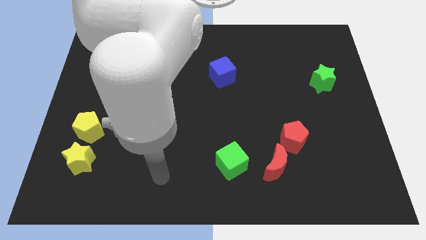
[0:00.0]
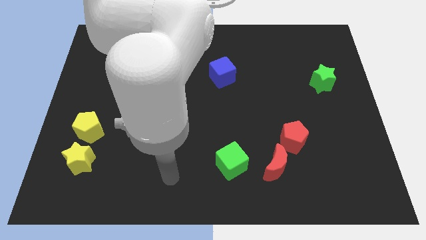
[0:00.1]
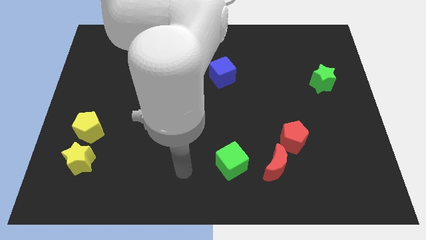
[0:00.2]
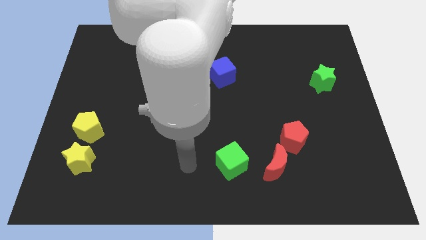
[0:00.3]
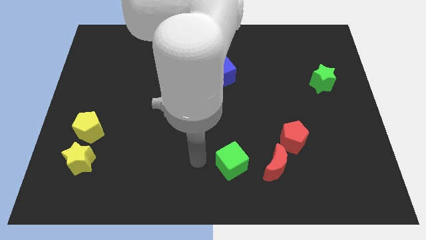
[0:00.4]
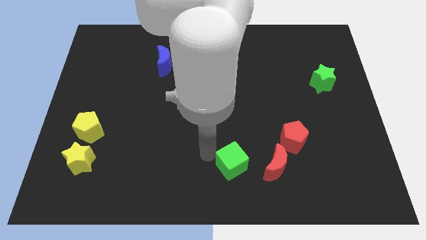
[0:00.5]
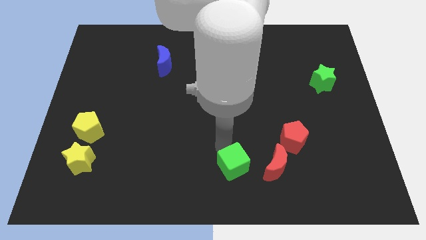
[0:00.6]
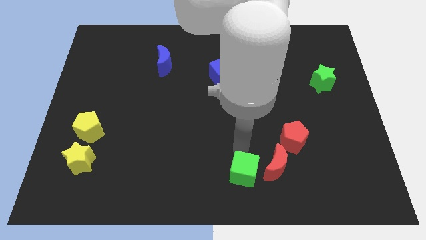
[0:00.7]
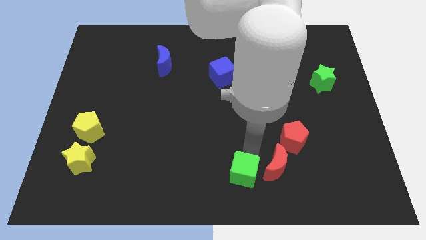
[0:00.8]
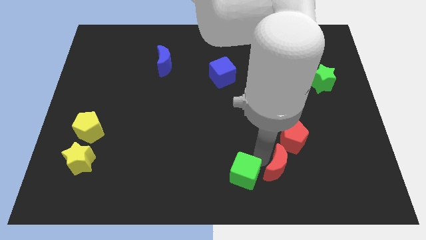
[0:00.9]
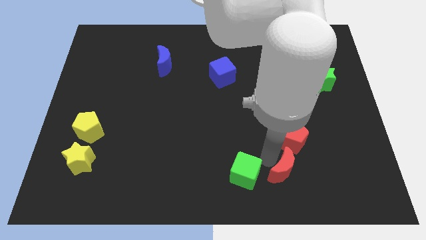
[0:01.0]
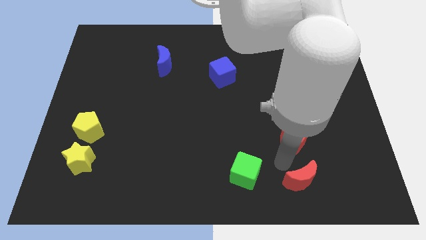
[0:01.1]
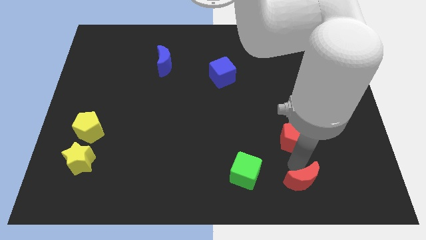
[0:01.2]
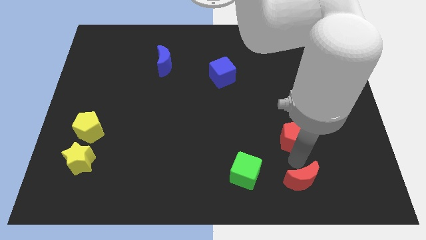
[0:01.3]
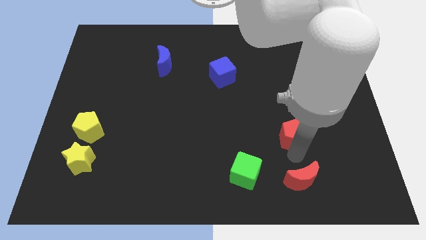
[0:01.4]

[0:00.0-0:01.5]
pull the red pentagon apart from the red moon

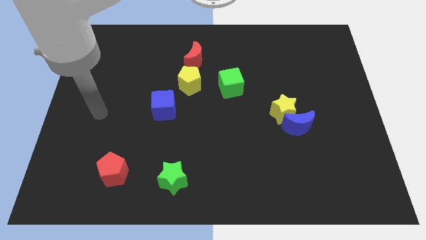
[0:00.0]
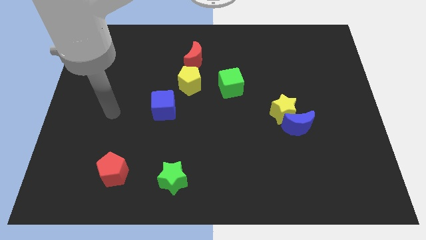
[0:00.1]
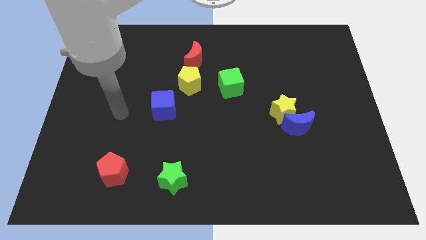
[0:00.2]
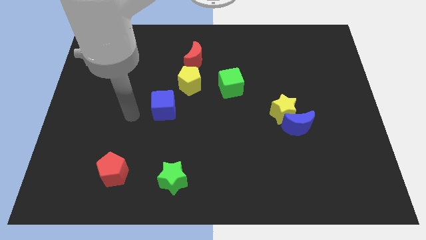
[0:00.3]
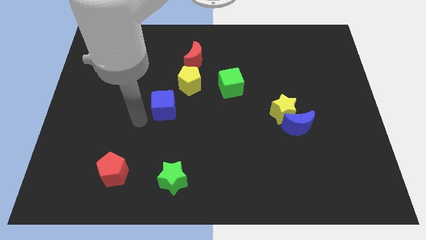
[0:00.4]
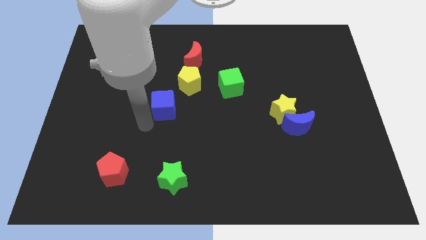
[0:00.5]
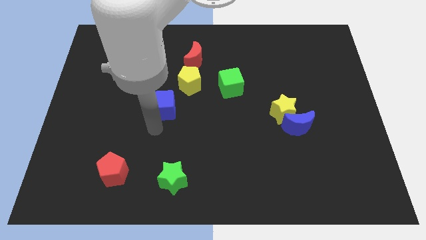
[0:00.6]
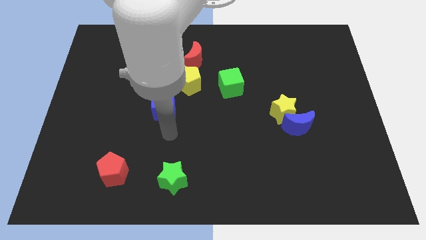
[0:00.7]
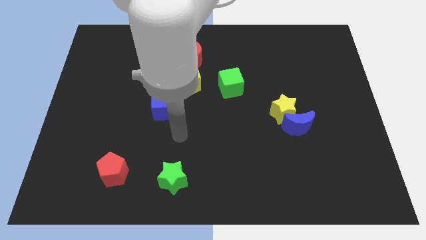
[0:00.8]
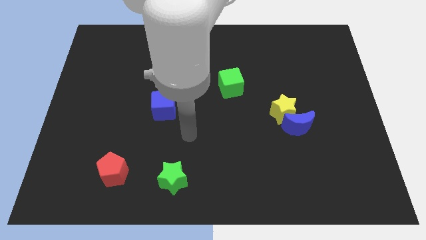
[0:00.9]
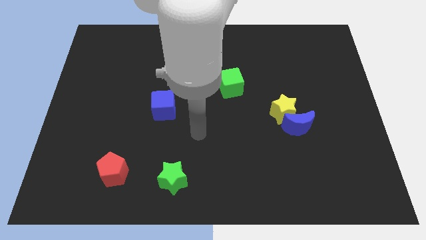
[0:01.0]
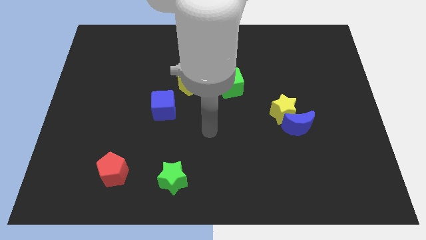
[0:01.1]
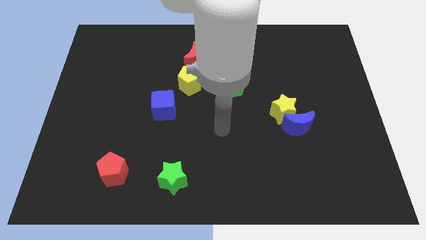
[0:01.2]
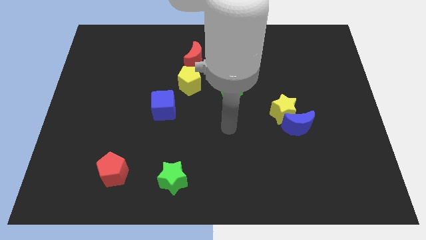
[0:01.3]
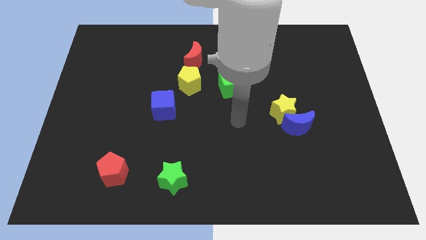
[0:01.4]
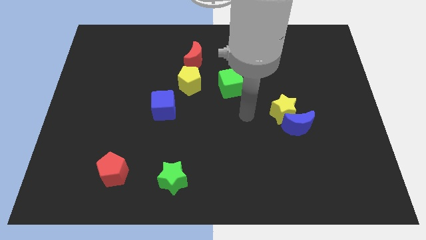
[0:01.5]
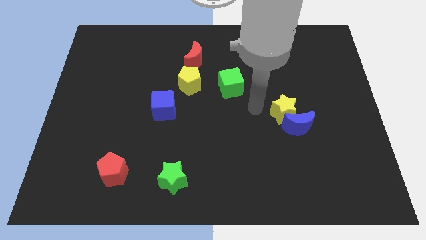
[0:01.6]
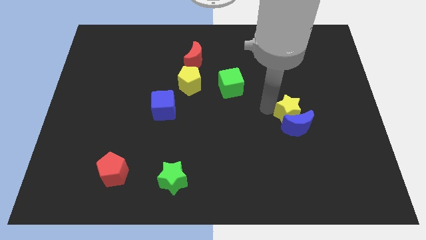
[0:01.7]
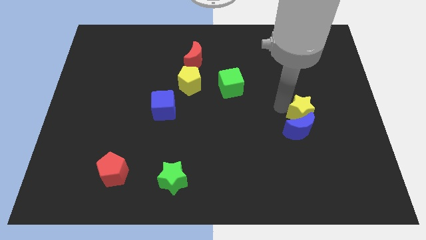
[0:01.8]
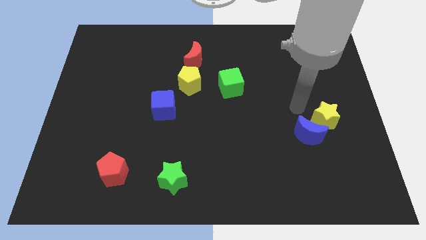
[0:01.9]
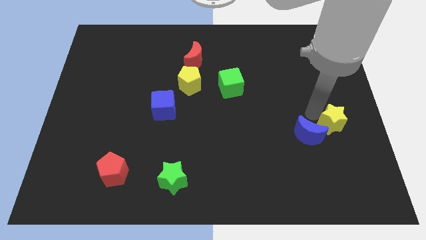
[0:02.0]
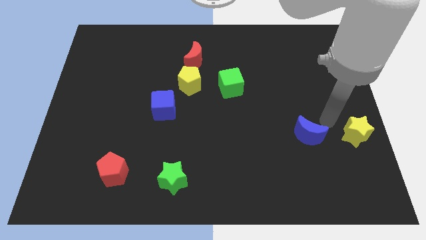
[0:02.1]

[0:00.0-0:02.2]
separate the blue moon from the yellow star

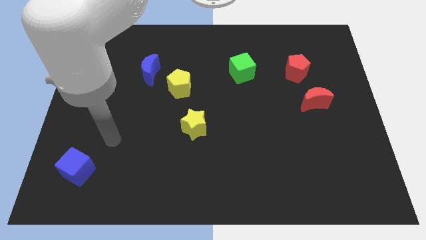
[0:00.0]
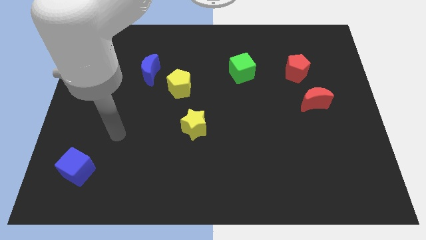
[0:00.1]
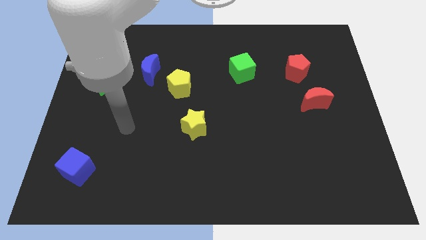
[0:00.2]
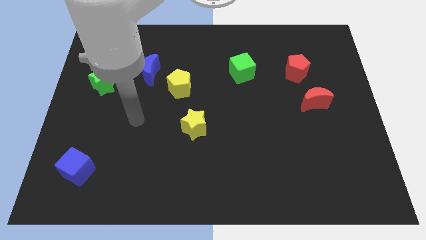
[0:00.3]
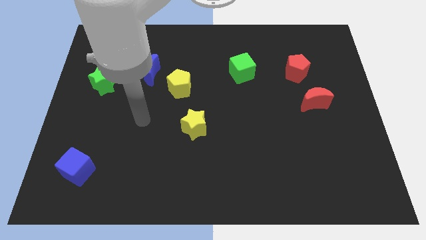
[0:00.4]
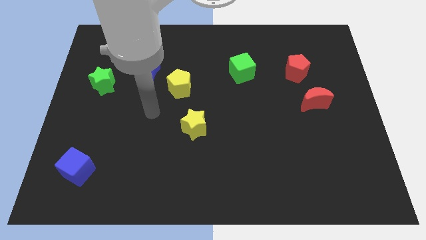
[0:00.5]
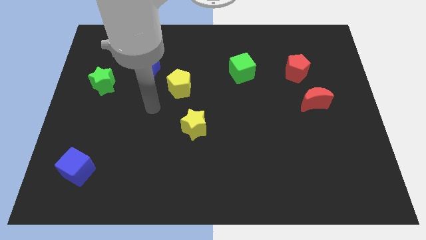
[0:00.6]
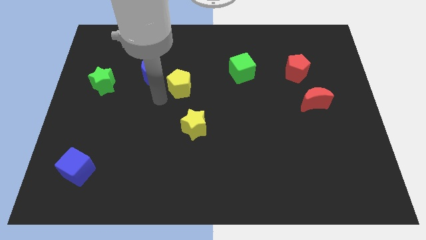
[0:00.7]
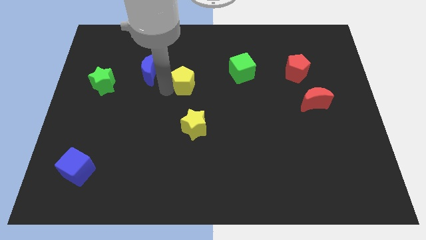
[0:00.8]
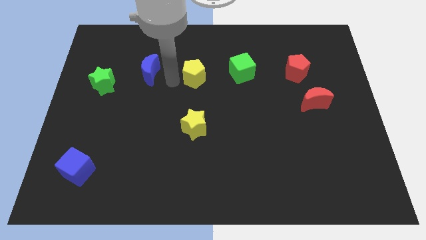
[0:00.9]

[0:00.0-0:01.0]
separate the blue moon from the yellow pentagon

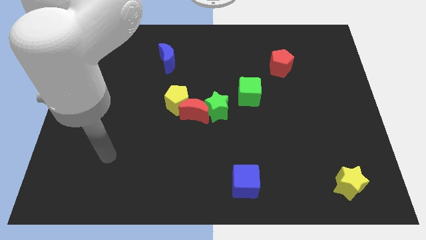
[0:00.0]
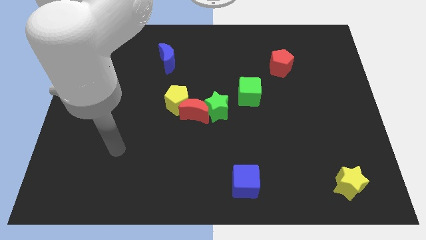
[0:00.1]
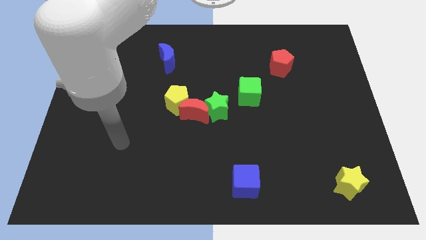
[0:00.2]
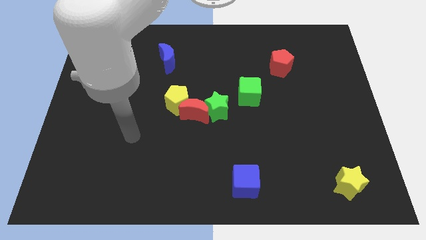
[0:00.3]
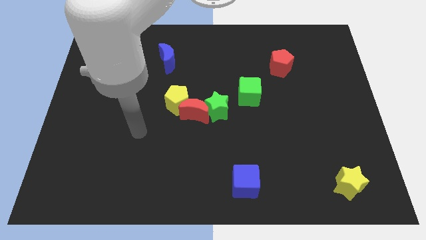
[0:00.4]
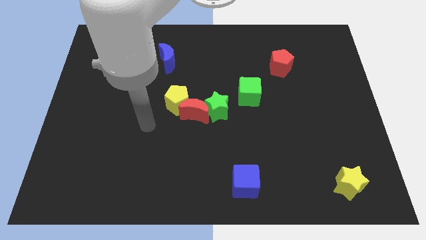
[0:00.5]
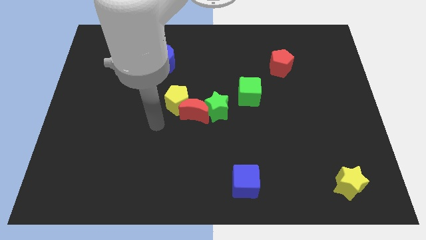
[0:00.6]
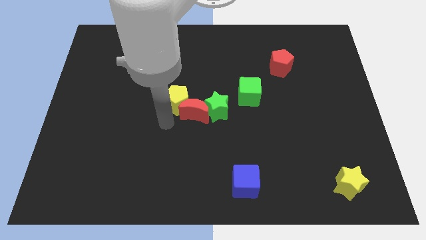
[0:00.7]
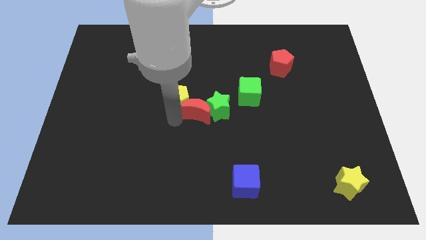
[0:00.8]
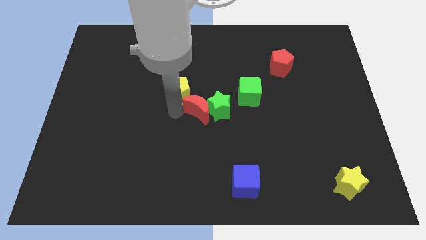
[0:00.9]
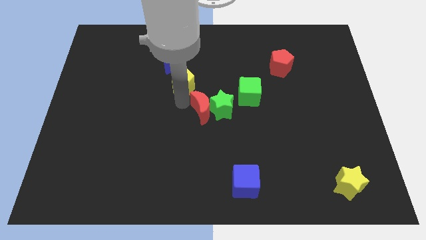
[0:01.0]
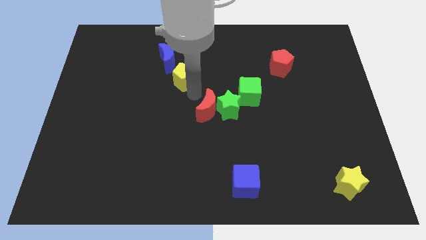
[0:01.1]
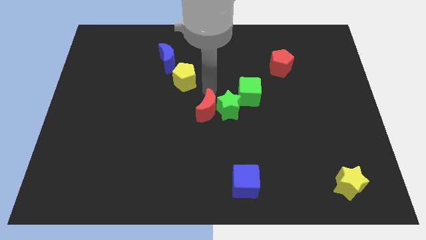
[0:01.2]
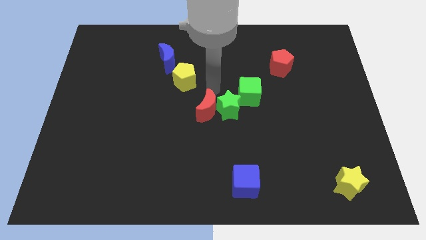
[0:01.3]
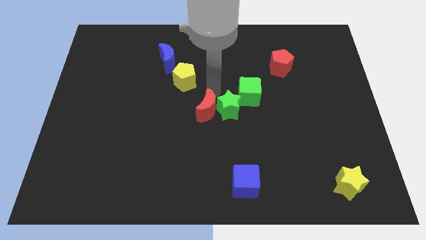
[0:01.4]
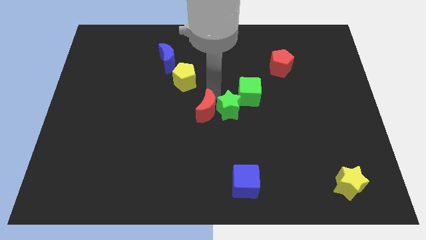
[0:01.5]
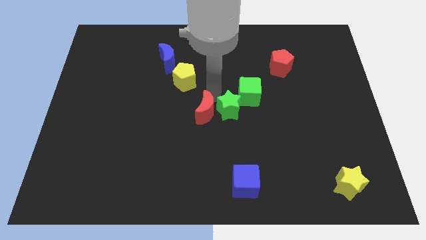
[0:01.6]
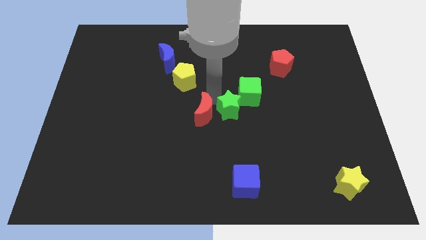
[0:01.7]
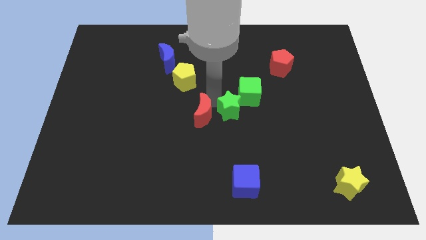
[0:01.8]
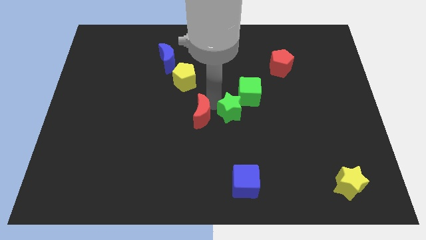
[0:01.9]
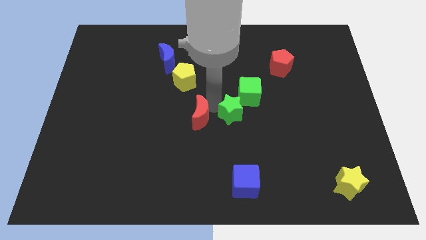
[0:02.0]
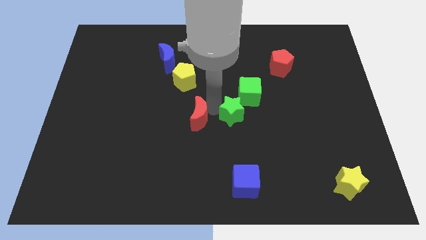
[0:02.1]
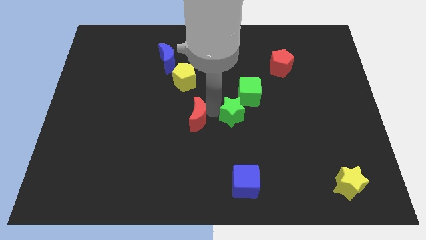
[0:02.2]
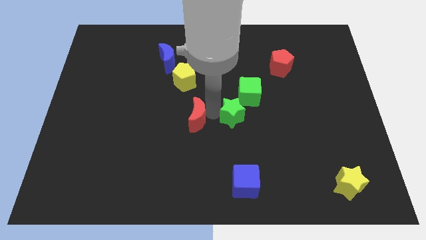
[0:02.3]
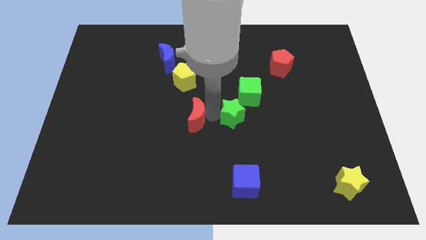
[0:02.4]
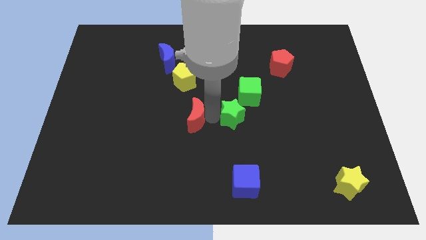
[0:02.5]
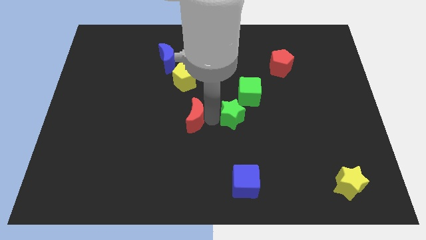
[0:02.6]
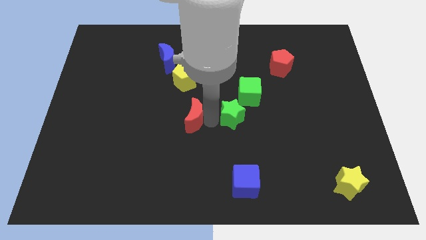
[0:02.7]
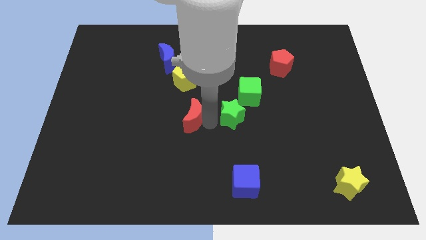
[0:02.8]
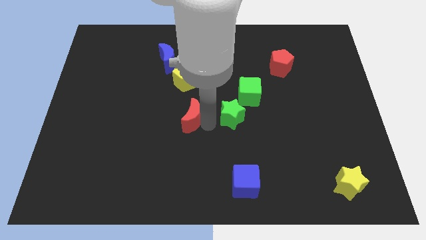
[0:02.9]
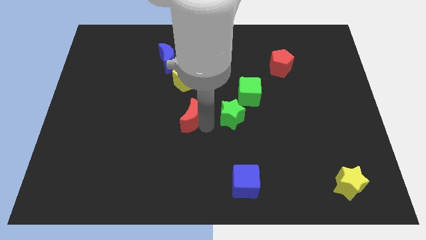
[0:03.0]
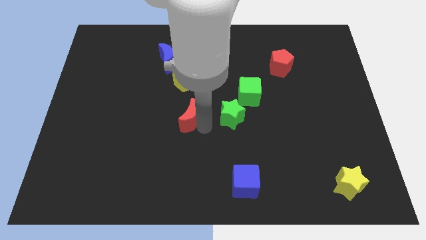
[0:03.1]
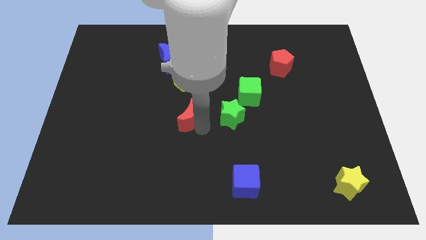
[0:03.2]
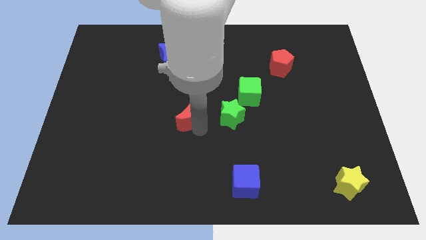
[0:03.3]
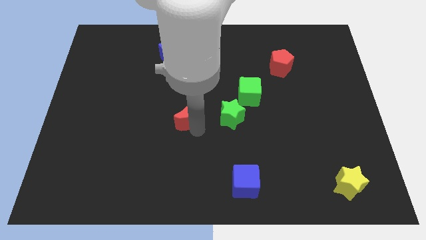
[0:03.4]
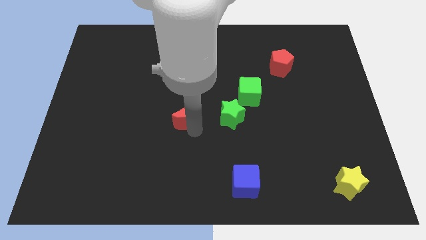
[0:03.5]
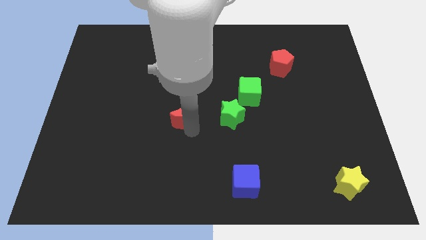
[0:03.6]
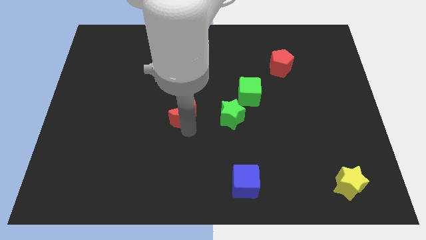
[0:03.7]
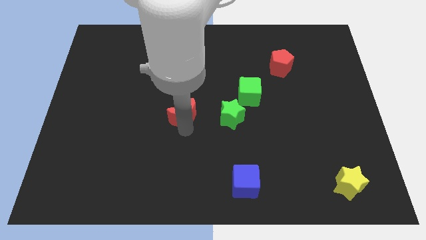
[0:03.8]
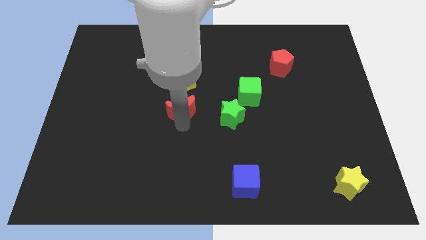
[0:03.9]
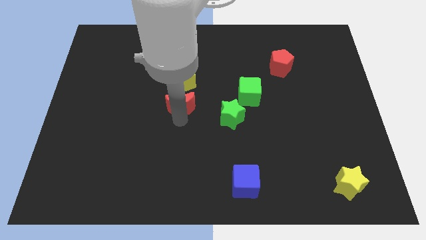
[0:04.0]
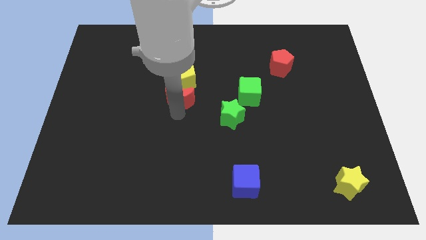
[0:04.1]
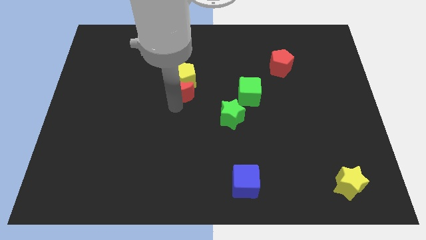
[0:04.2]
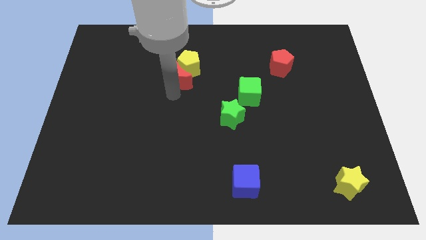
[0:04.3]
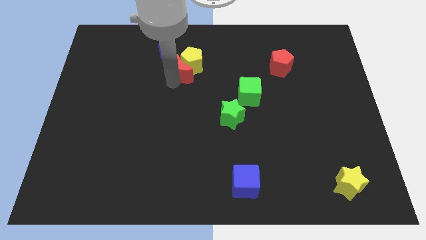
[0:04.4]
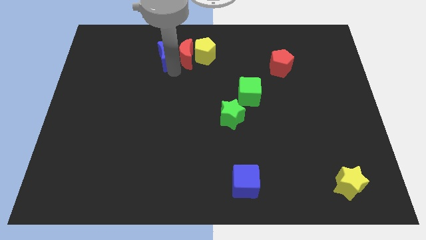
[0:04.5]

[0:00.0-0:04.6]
pull the red moon apart from the yellow pentagon and green star

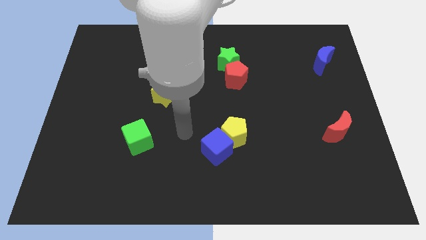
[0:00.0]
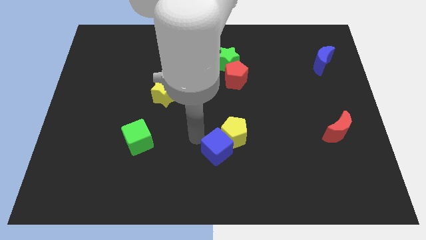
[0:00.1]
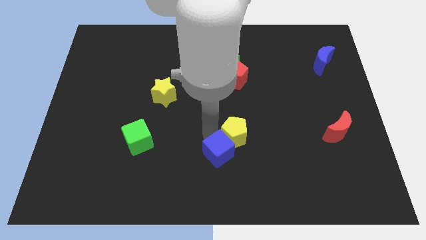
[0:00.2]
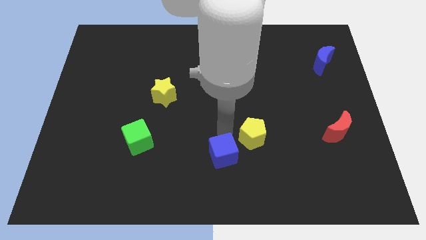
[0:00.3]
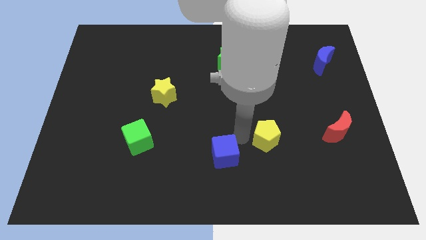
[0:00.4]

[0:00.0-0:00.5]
move the blue cube away from the yellow pentagon
